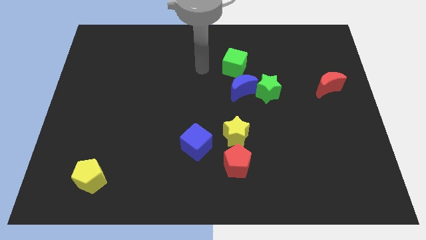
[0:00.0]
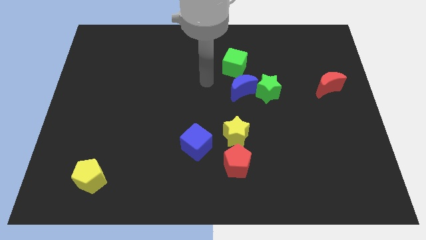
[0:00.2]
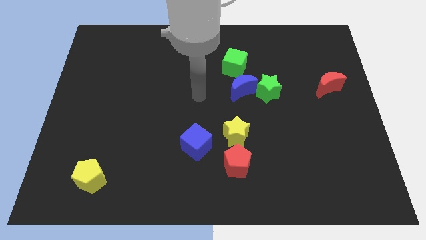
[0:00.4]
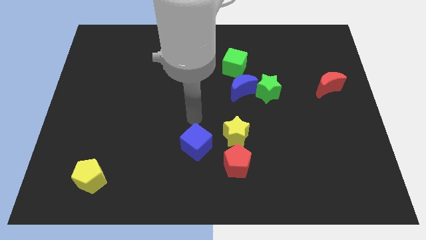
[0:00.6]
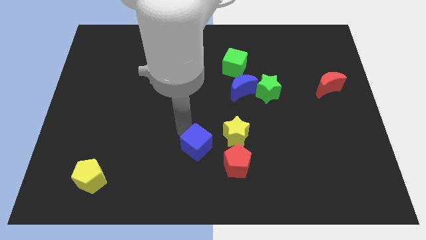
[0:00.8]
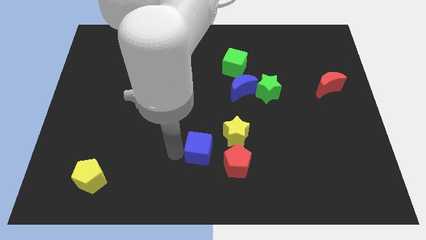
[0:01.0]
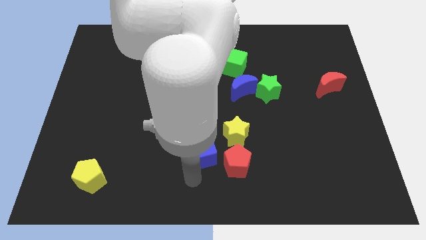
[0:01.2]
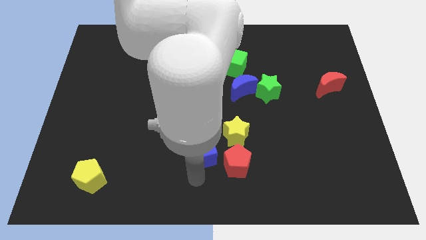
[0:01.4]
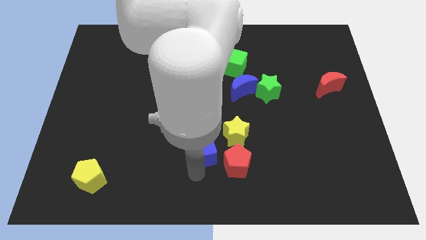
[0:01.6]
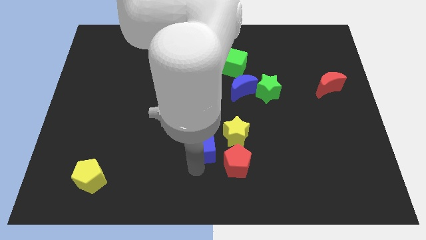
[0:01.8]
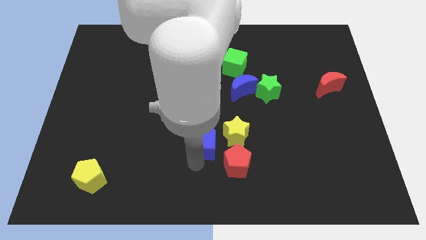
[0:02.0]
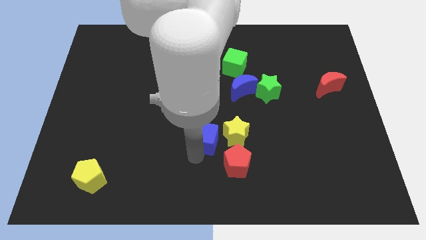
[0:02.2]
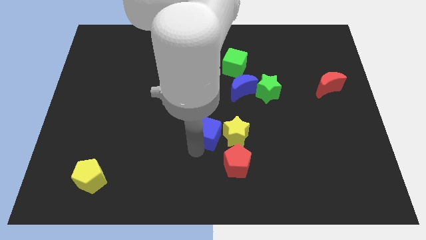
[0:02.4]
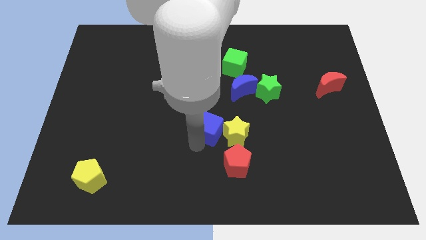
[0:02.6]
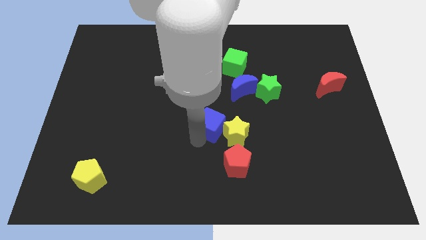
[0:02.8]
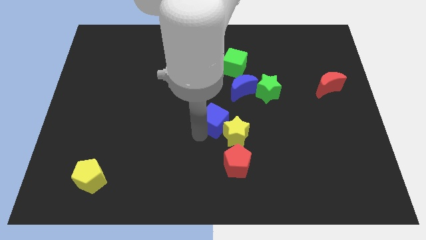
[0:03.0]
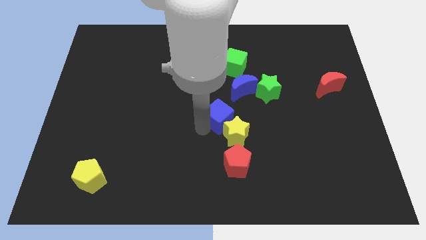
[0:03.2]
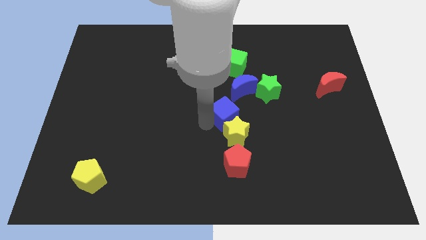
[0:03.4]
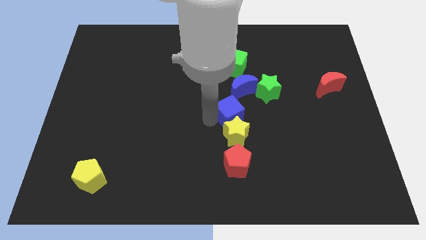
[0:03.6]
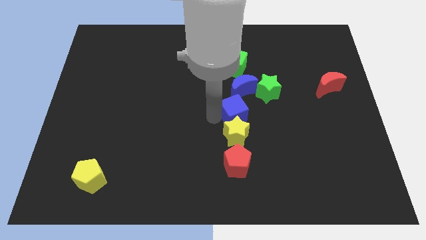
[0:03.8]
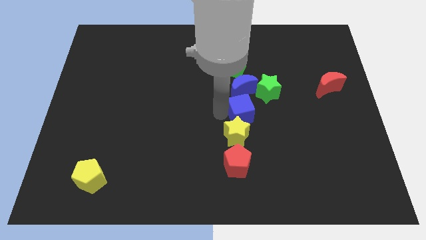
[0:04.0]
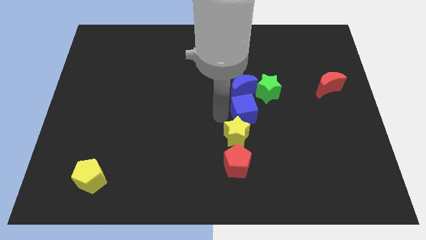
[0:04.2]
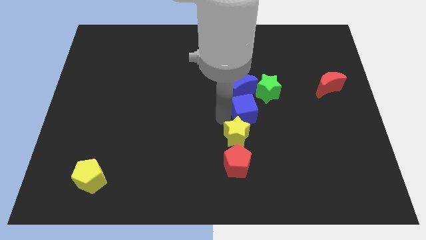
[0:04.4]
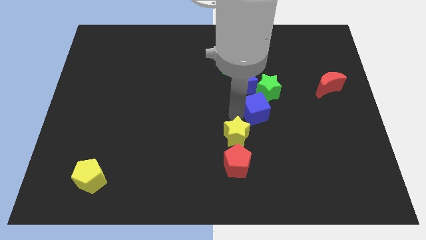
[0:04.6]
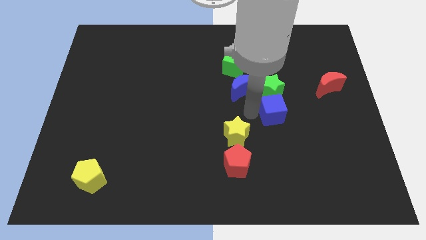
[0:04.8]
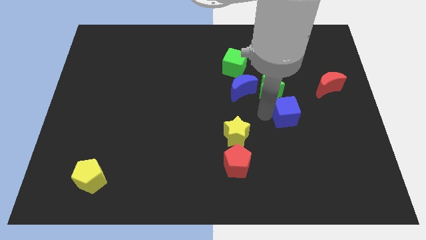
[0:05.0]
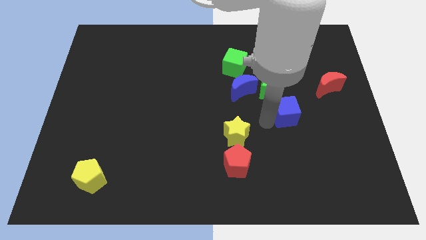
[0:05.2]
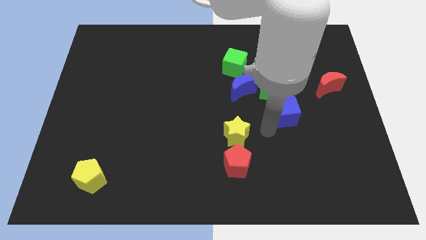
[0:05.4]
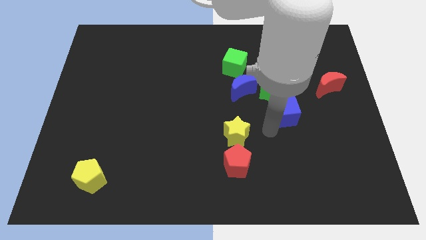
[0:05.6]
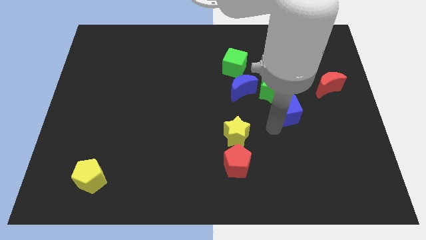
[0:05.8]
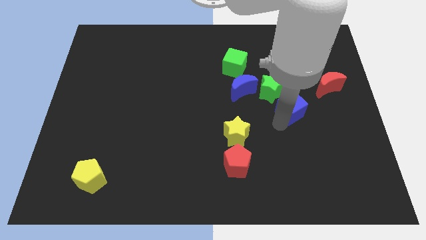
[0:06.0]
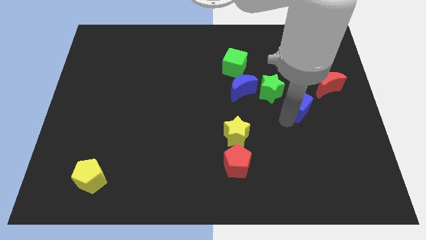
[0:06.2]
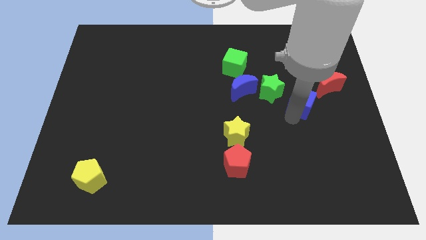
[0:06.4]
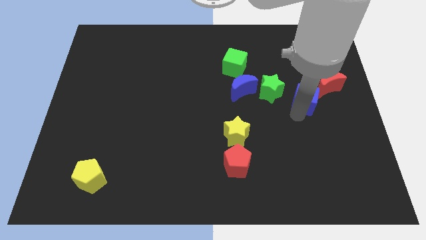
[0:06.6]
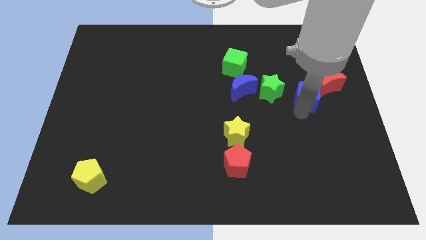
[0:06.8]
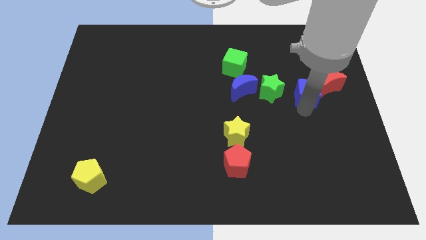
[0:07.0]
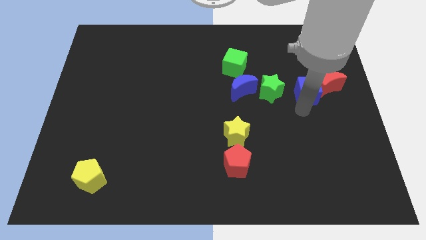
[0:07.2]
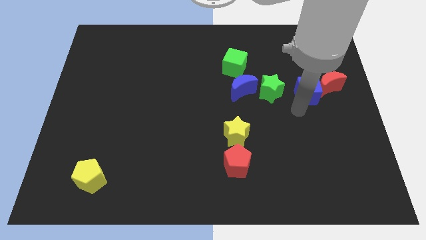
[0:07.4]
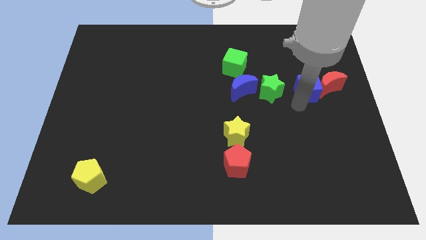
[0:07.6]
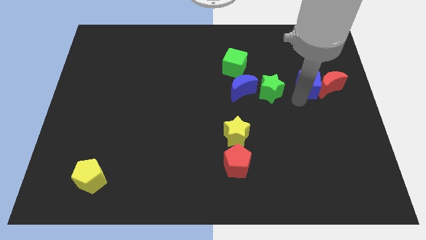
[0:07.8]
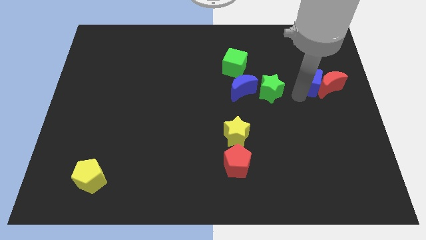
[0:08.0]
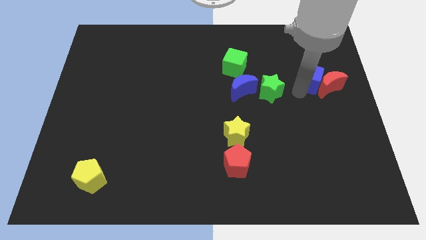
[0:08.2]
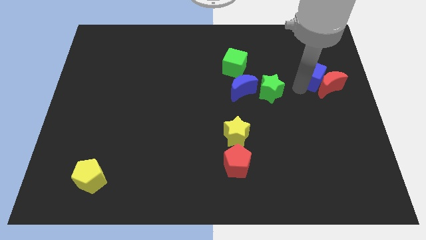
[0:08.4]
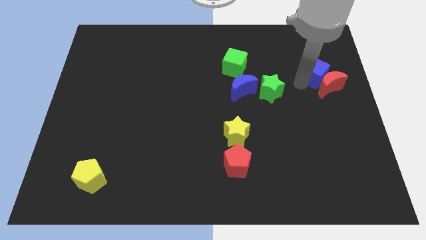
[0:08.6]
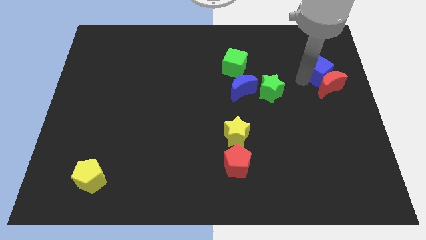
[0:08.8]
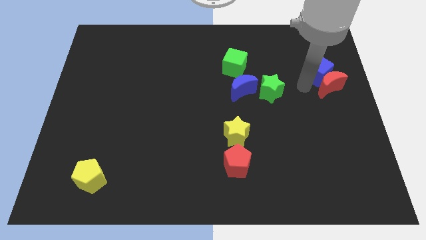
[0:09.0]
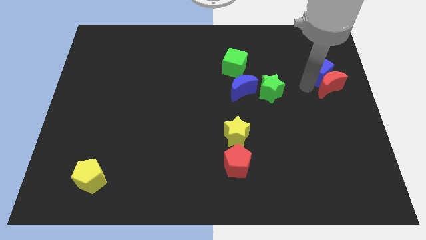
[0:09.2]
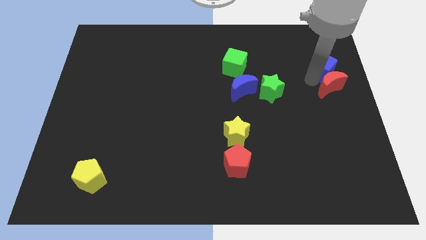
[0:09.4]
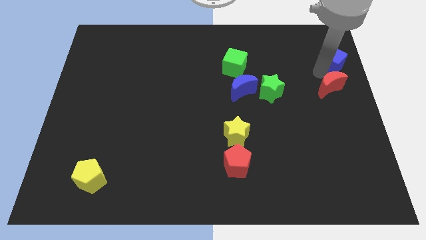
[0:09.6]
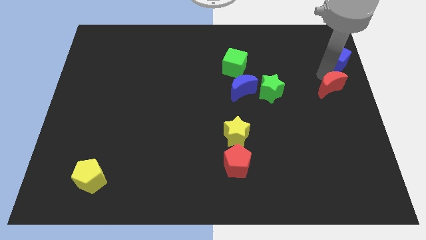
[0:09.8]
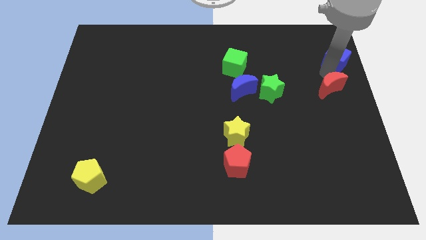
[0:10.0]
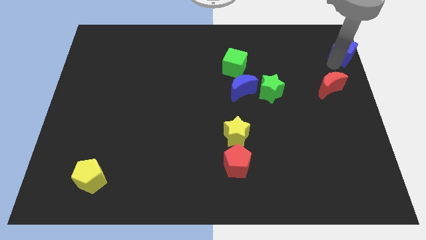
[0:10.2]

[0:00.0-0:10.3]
put the blue cube to the top right of the board

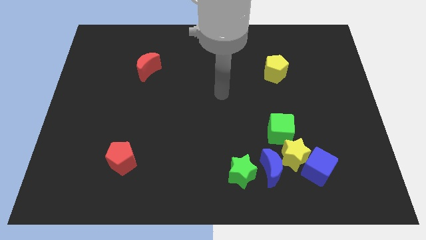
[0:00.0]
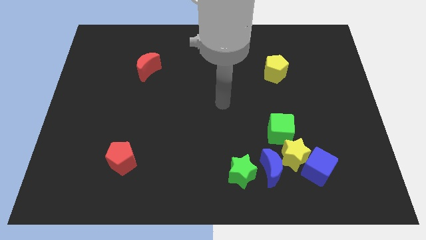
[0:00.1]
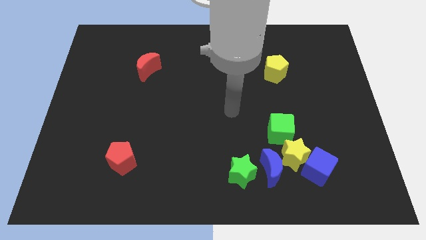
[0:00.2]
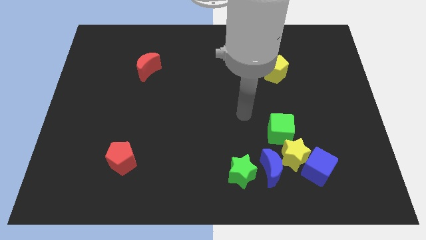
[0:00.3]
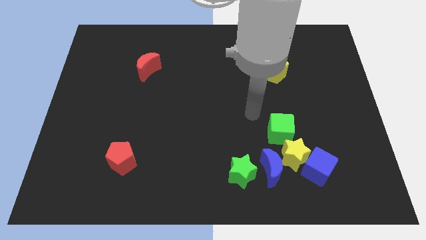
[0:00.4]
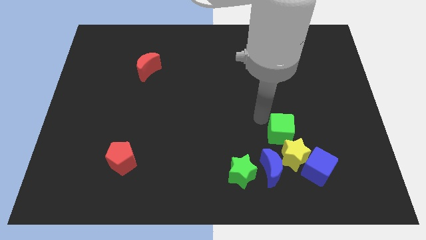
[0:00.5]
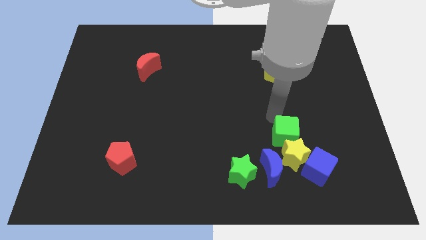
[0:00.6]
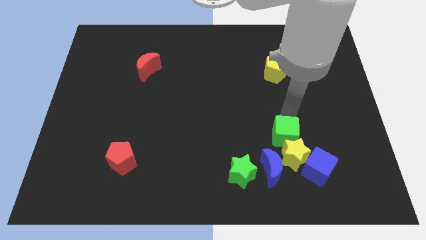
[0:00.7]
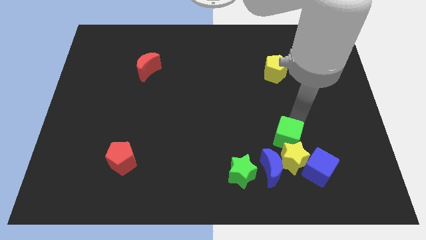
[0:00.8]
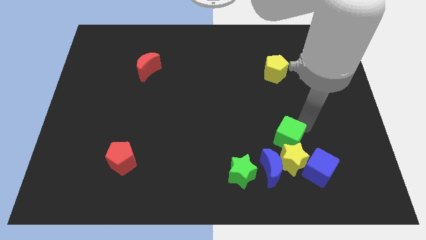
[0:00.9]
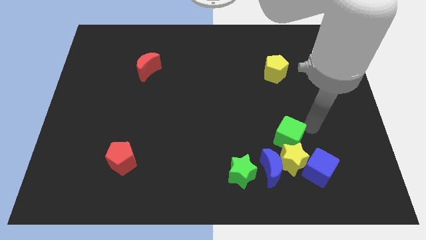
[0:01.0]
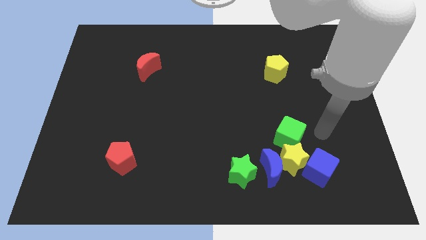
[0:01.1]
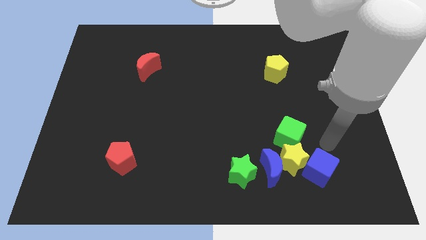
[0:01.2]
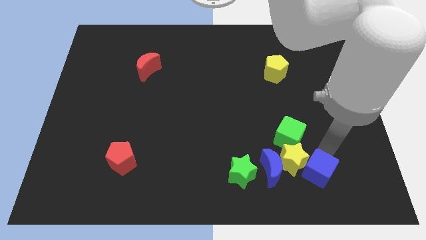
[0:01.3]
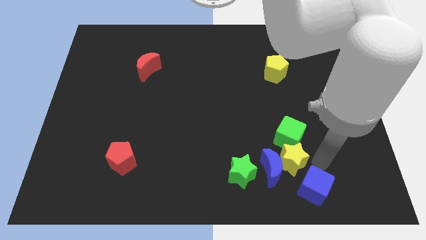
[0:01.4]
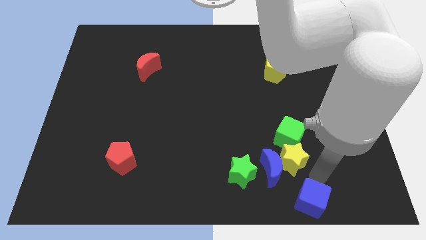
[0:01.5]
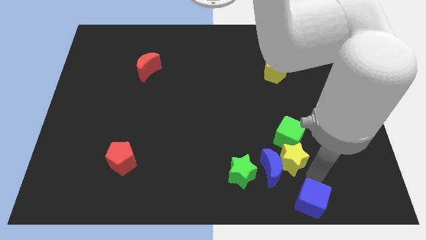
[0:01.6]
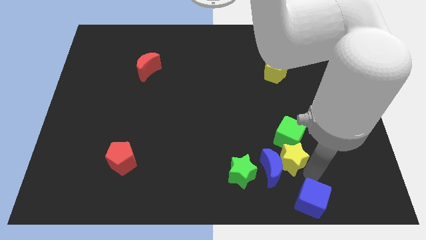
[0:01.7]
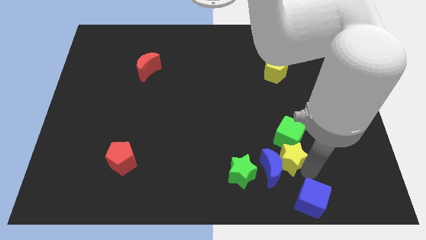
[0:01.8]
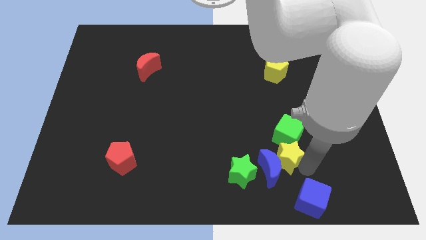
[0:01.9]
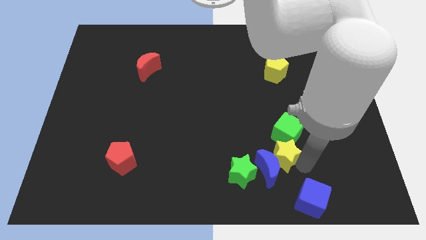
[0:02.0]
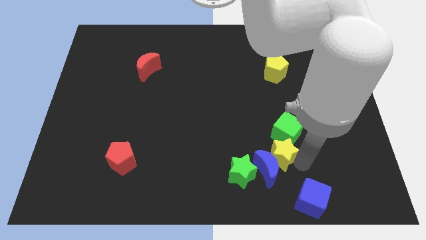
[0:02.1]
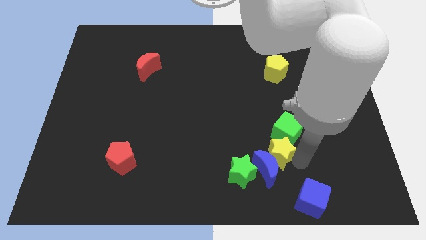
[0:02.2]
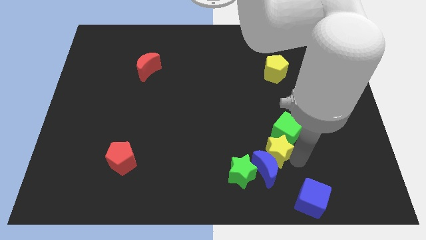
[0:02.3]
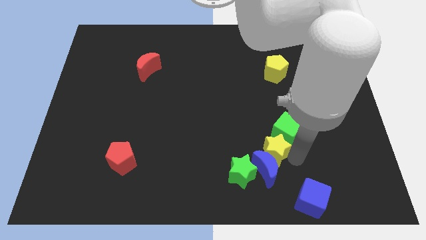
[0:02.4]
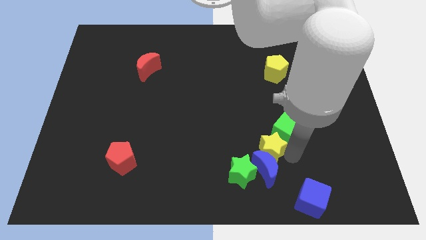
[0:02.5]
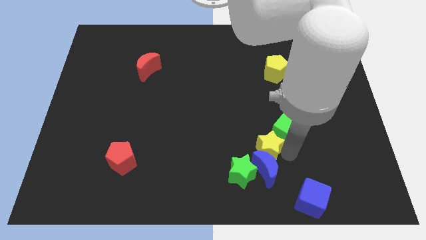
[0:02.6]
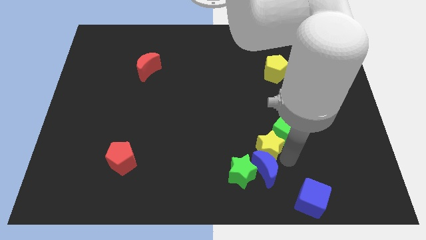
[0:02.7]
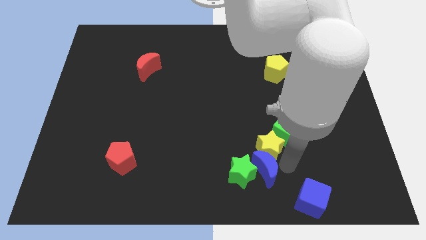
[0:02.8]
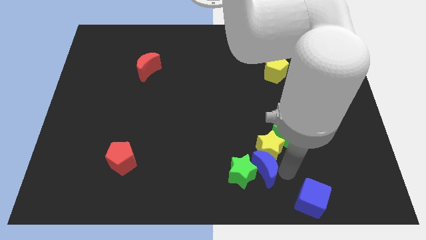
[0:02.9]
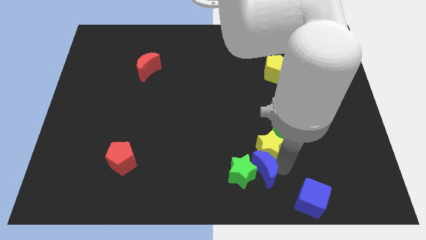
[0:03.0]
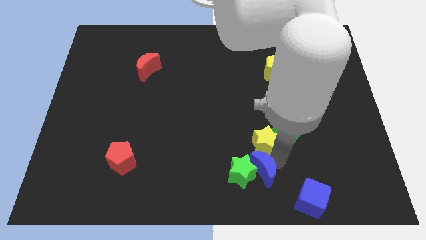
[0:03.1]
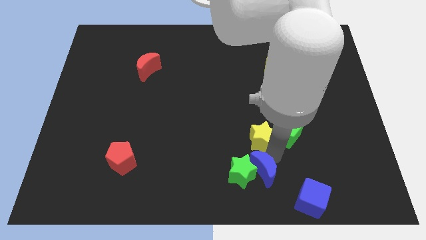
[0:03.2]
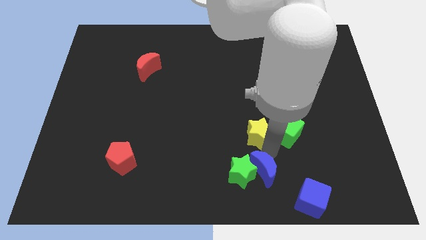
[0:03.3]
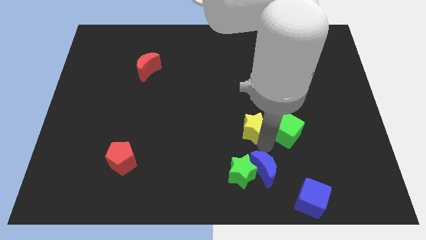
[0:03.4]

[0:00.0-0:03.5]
put the yellow star to the center
